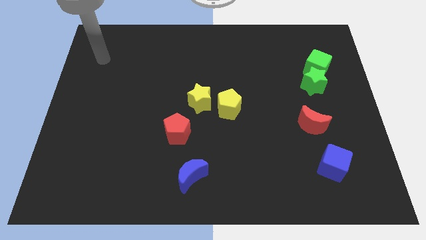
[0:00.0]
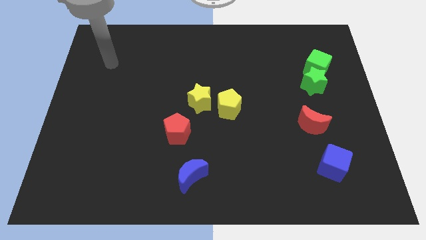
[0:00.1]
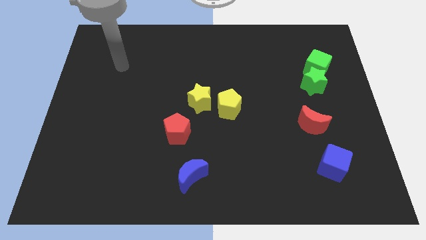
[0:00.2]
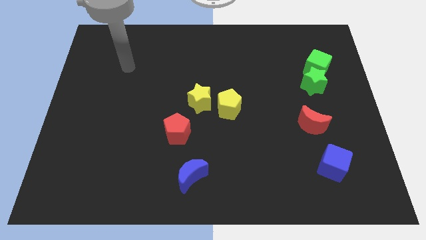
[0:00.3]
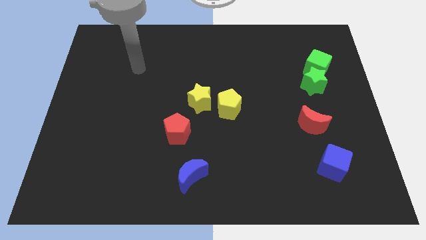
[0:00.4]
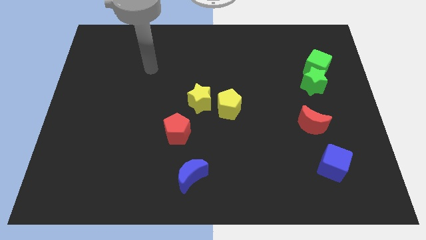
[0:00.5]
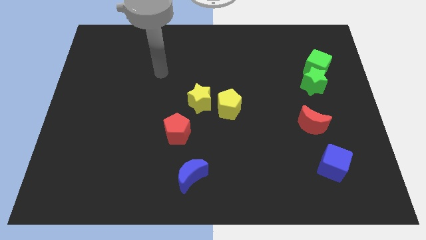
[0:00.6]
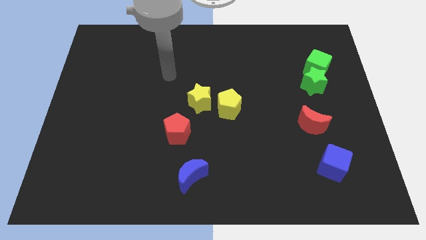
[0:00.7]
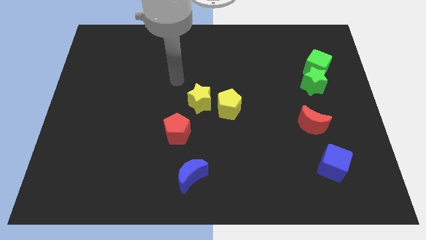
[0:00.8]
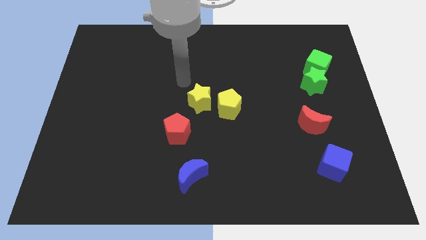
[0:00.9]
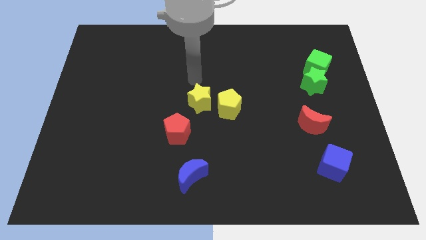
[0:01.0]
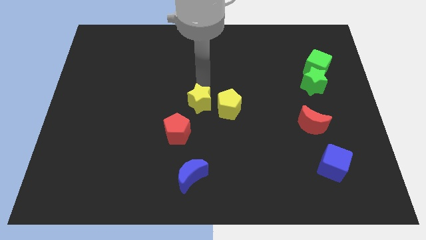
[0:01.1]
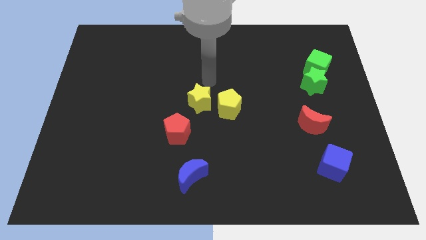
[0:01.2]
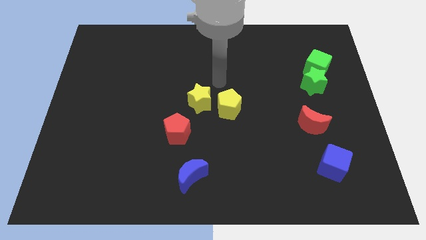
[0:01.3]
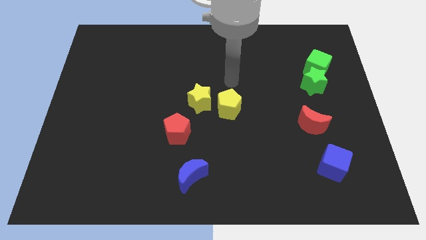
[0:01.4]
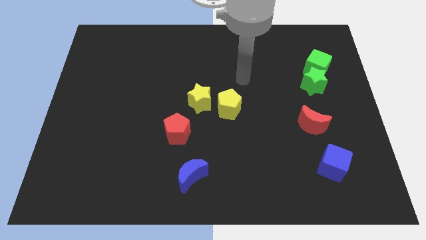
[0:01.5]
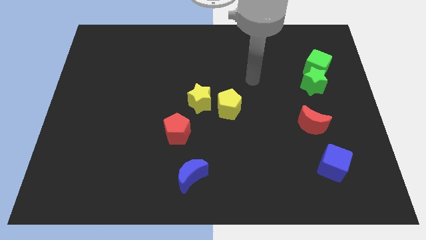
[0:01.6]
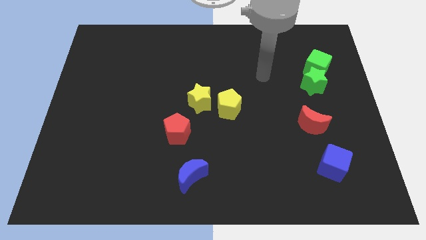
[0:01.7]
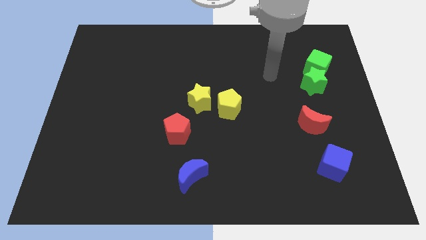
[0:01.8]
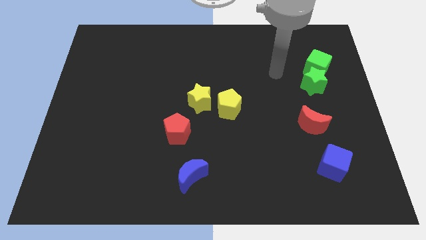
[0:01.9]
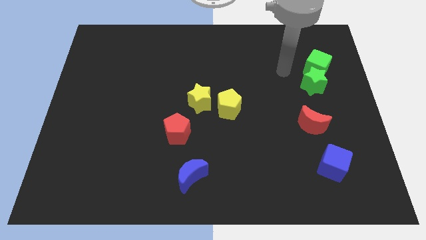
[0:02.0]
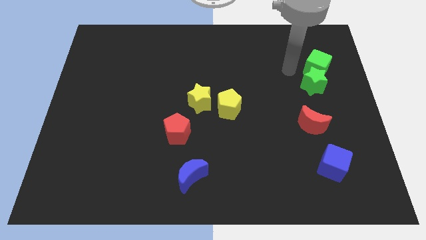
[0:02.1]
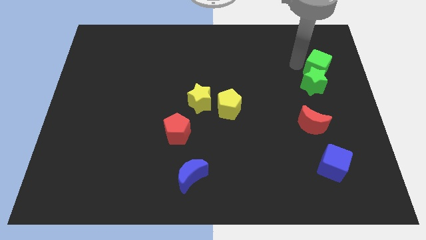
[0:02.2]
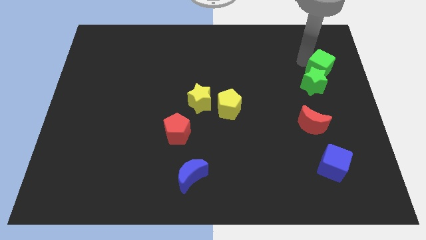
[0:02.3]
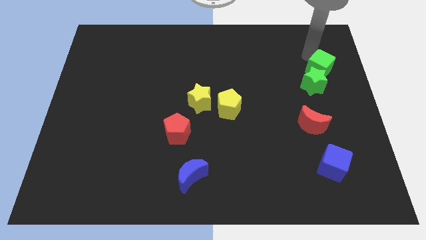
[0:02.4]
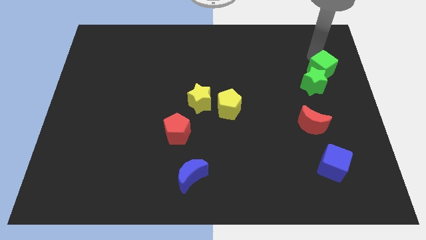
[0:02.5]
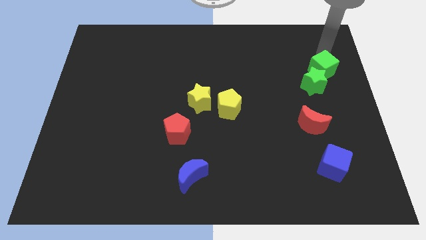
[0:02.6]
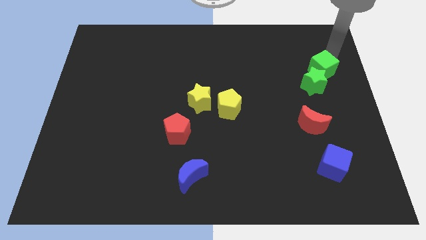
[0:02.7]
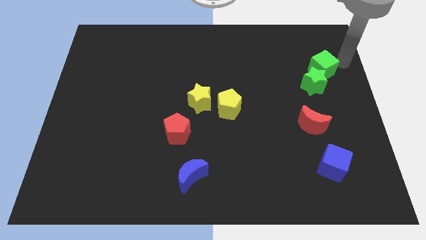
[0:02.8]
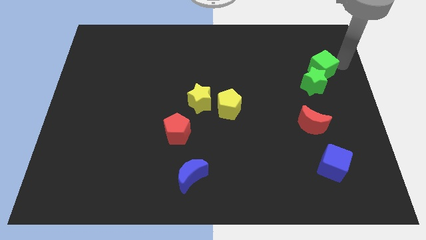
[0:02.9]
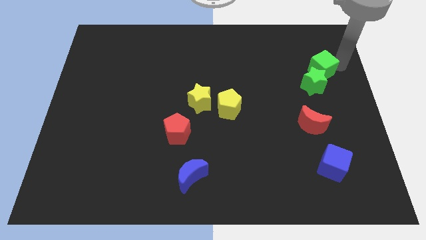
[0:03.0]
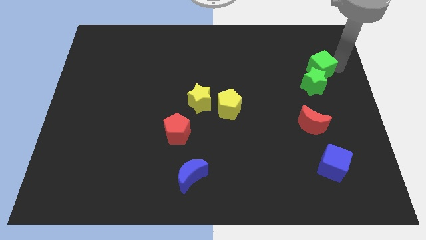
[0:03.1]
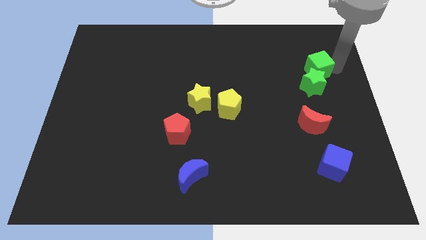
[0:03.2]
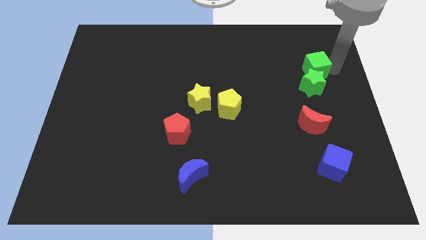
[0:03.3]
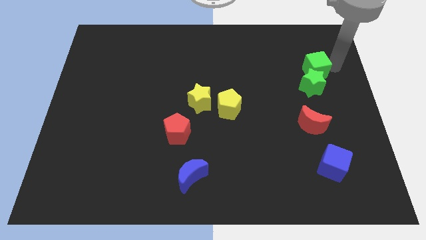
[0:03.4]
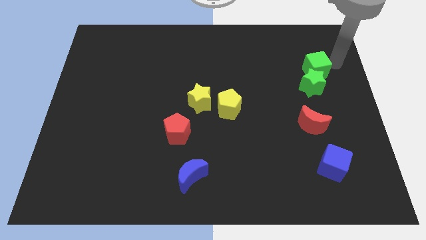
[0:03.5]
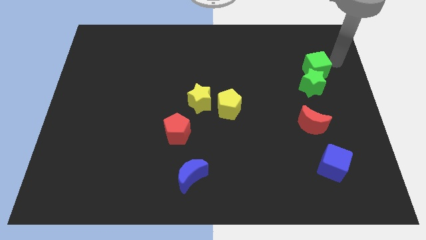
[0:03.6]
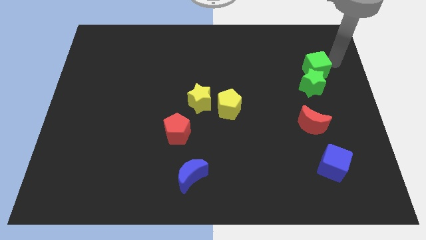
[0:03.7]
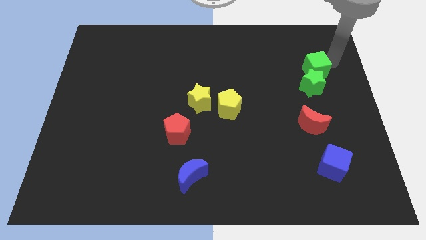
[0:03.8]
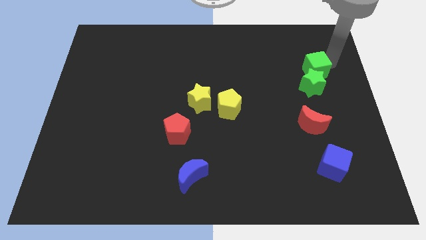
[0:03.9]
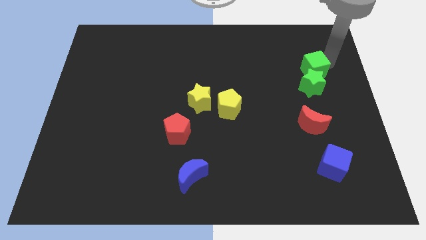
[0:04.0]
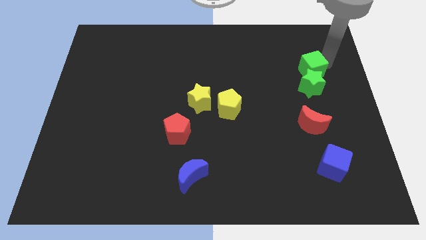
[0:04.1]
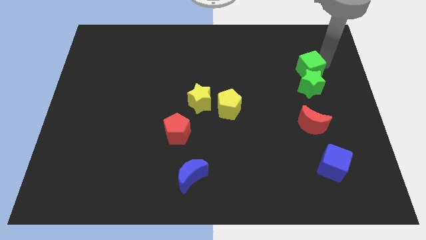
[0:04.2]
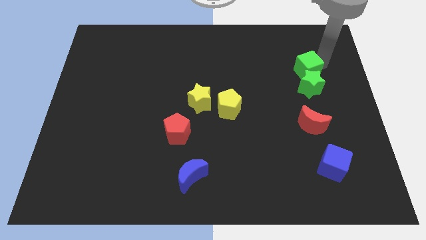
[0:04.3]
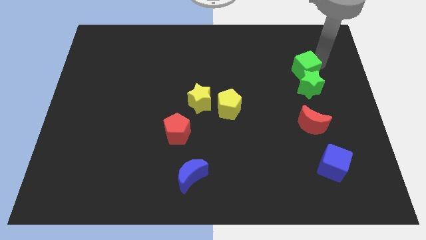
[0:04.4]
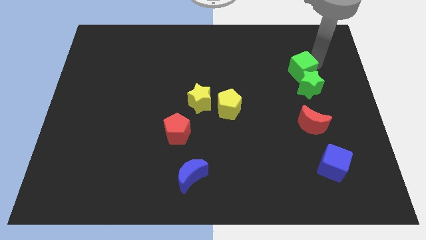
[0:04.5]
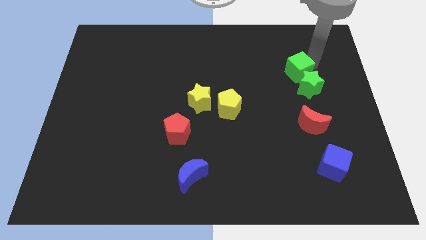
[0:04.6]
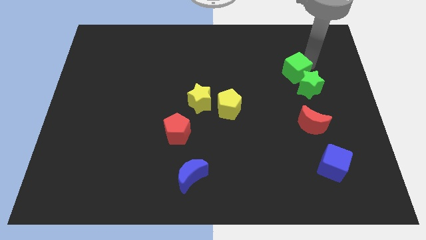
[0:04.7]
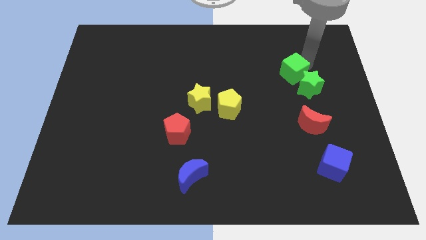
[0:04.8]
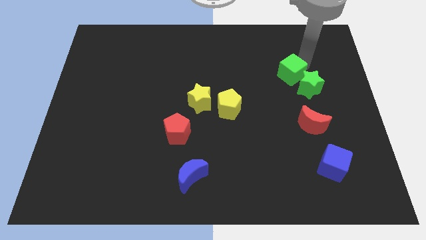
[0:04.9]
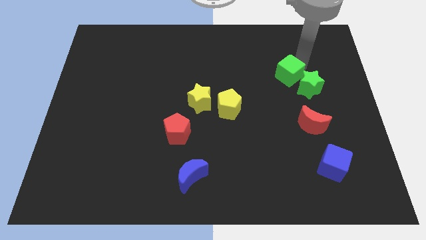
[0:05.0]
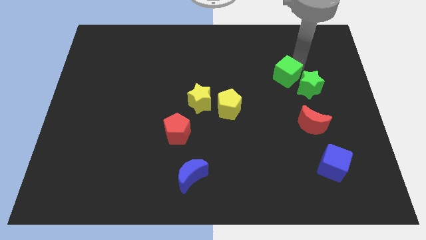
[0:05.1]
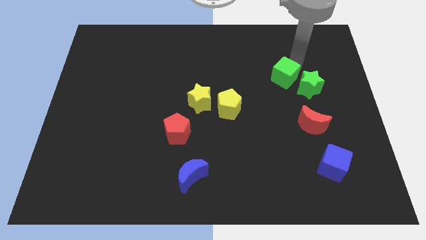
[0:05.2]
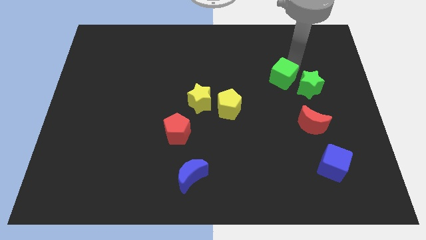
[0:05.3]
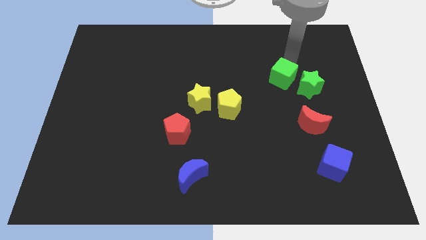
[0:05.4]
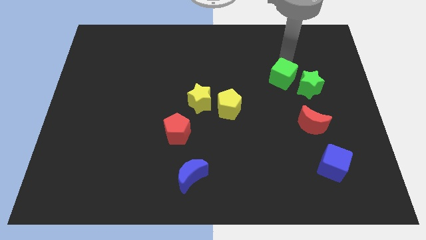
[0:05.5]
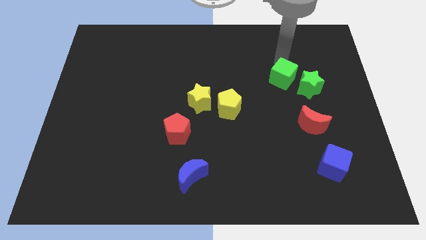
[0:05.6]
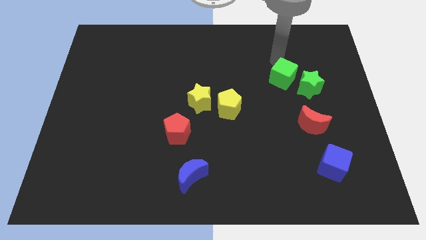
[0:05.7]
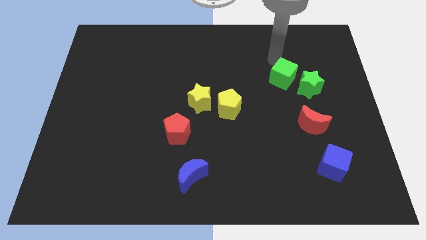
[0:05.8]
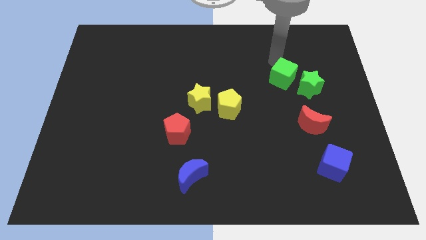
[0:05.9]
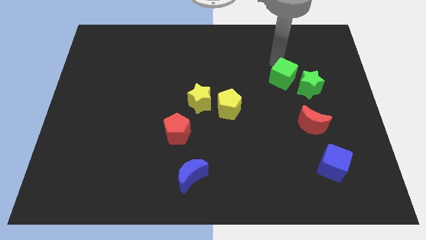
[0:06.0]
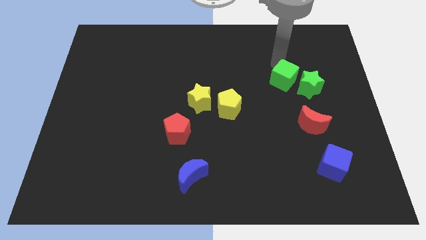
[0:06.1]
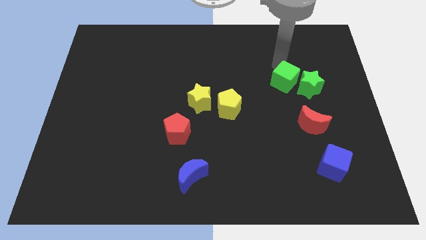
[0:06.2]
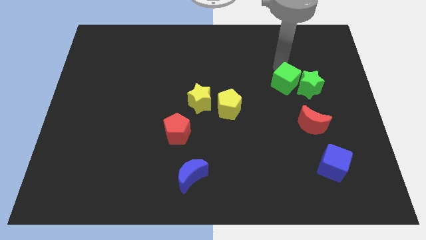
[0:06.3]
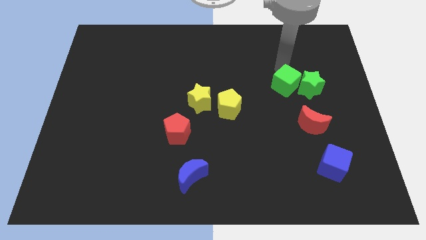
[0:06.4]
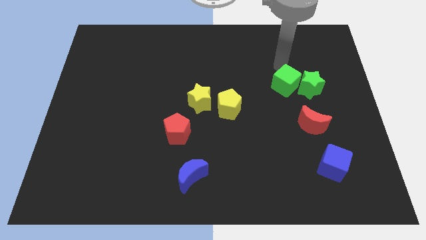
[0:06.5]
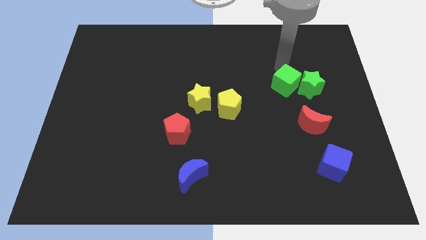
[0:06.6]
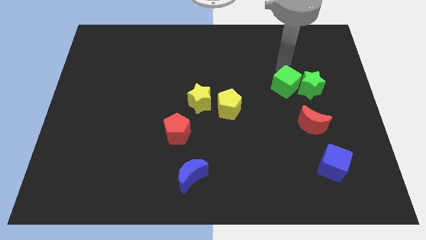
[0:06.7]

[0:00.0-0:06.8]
move the green cube to the bottom left side of the green star

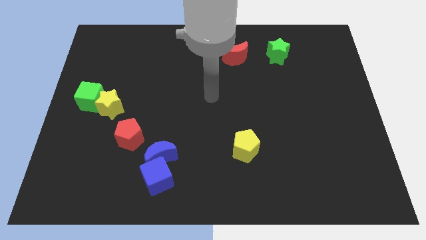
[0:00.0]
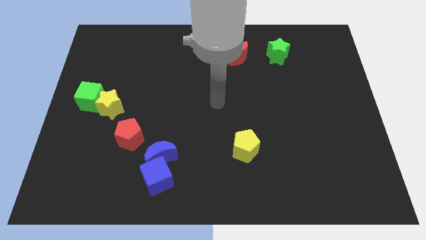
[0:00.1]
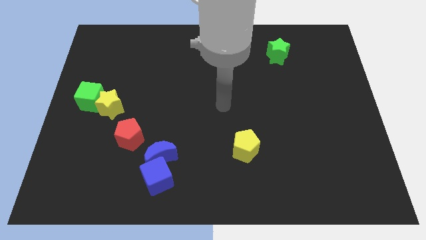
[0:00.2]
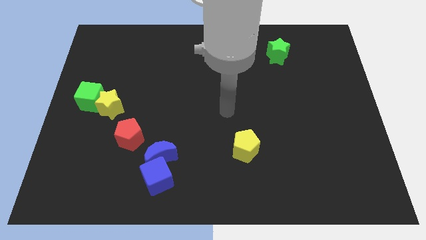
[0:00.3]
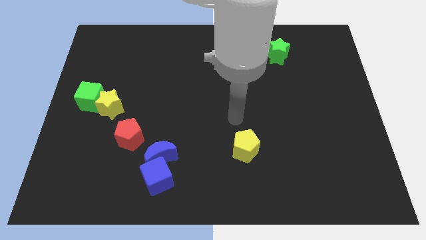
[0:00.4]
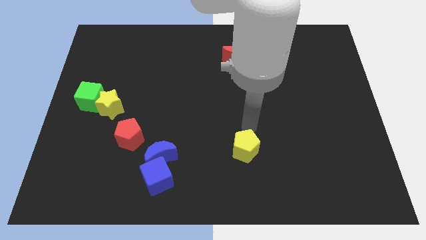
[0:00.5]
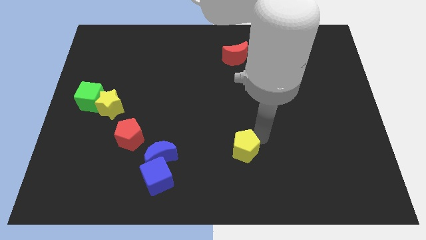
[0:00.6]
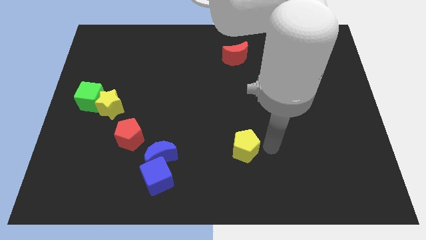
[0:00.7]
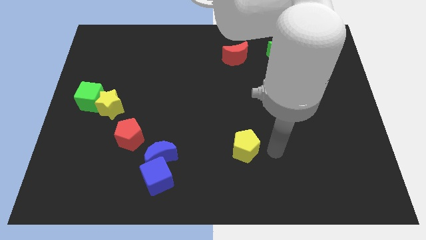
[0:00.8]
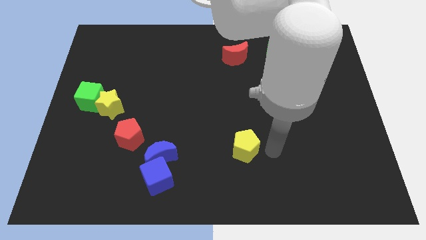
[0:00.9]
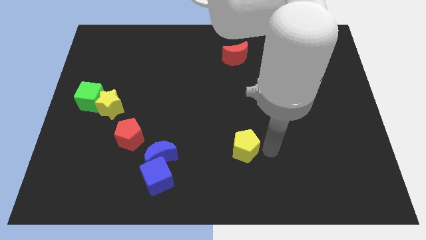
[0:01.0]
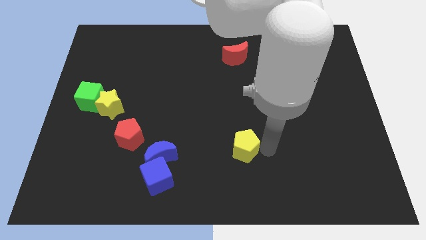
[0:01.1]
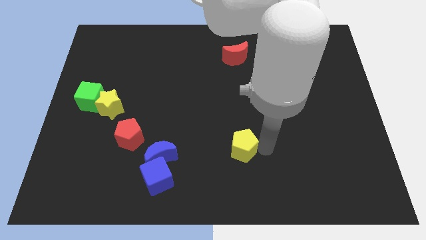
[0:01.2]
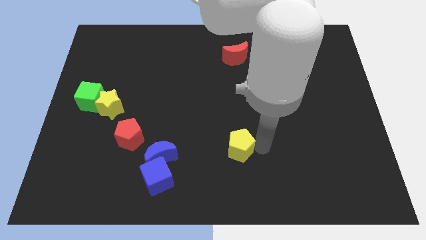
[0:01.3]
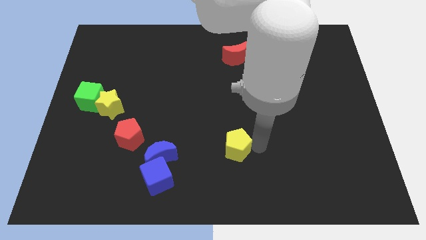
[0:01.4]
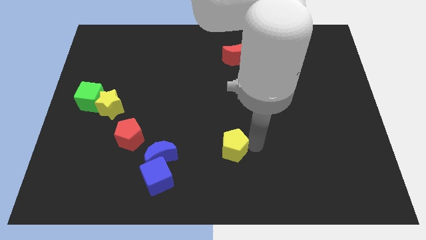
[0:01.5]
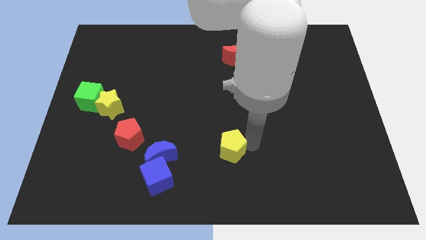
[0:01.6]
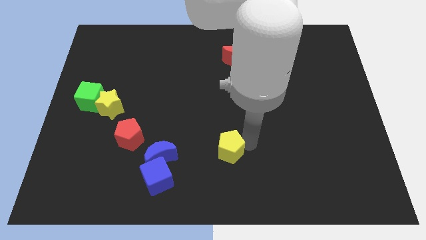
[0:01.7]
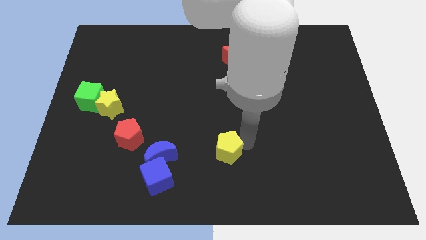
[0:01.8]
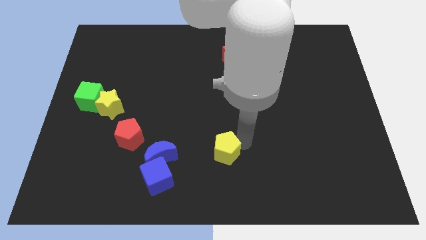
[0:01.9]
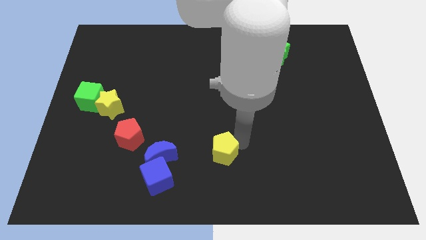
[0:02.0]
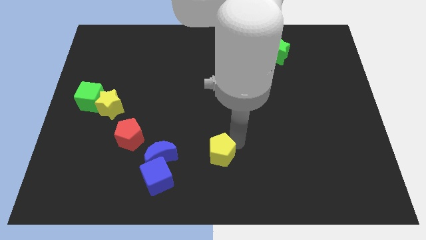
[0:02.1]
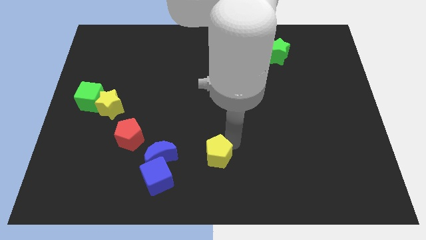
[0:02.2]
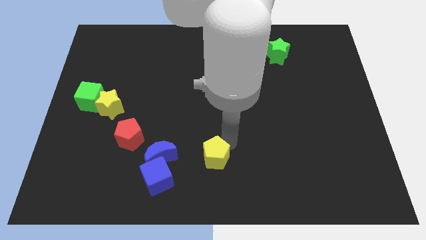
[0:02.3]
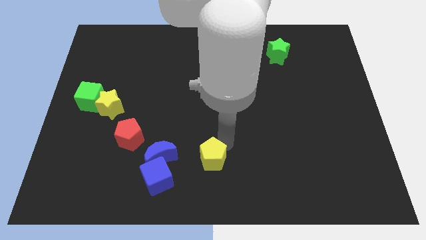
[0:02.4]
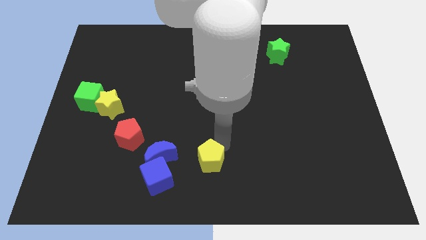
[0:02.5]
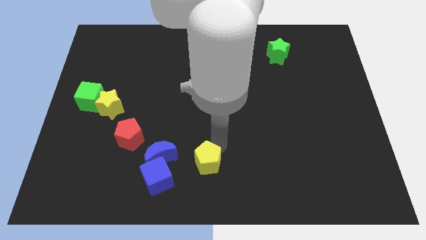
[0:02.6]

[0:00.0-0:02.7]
put the yellow pentagon diagonally up and to the right of the blue cube
